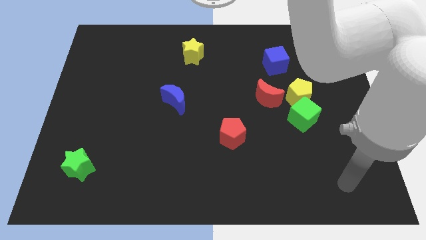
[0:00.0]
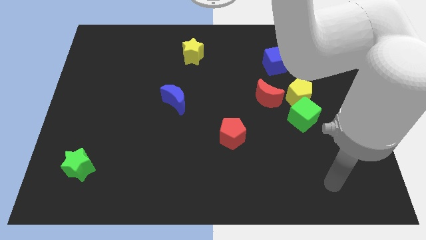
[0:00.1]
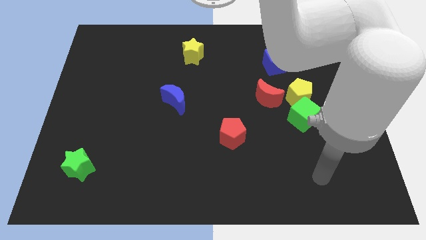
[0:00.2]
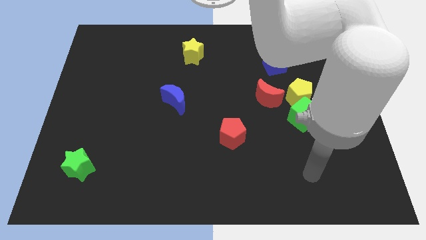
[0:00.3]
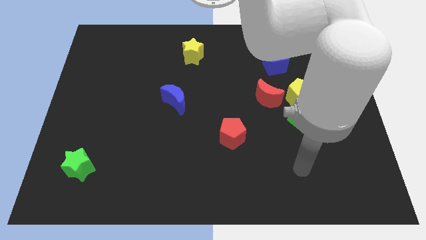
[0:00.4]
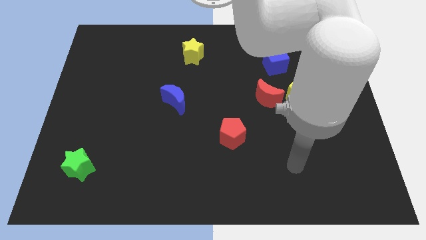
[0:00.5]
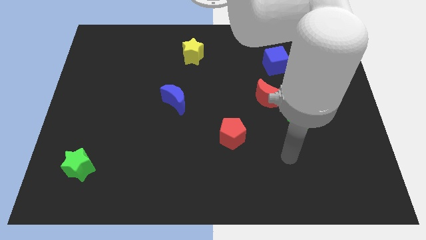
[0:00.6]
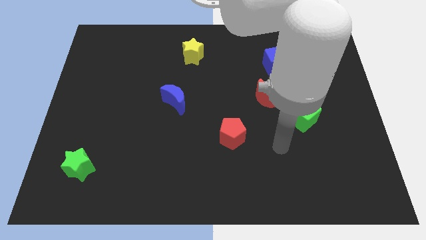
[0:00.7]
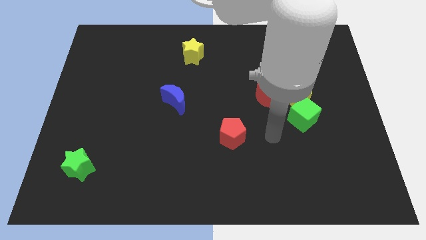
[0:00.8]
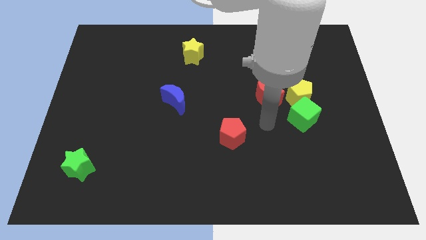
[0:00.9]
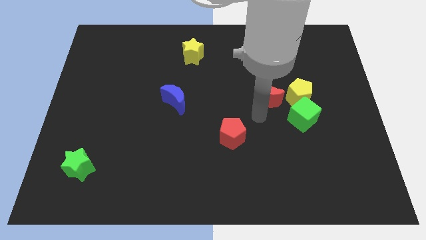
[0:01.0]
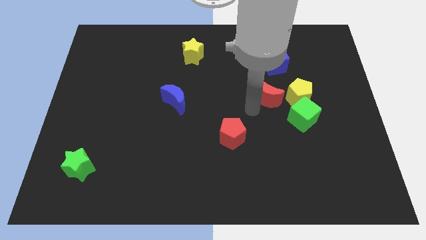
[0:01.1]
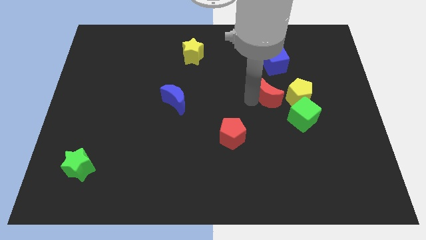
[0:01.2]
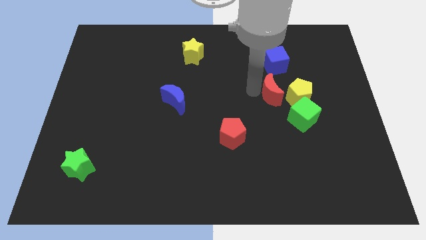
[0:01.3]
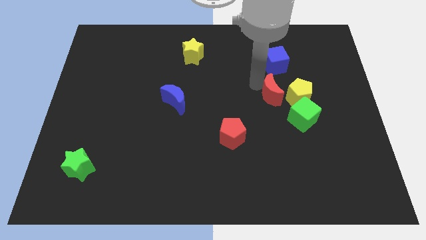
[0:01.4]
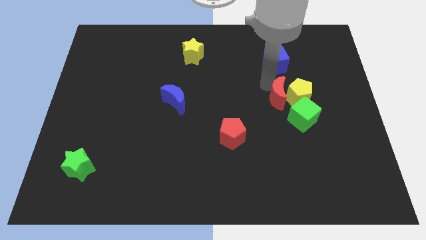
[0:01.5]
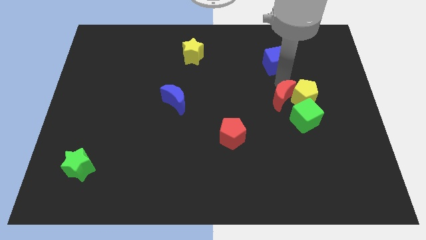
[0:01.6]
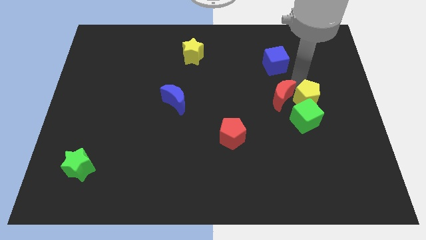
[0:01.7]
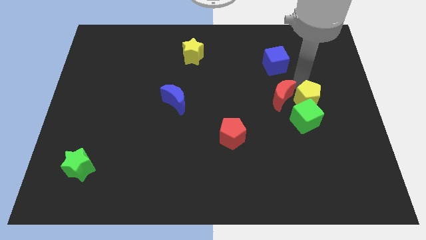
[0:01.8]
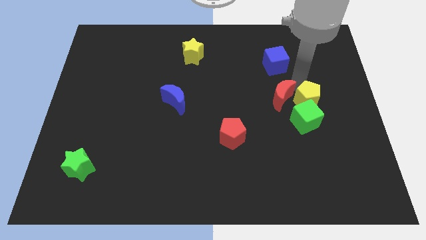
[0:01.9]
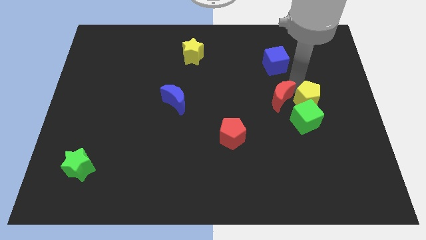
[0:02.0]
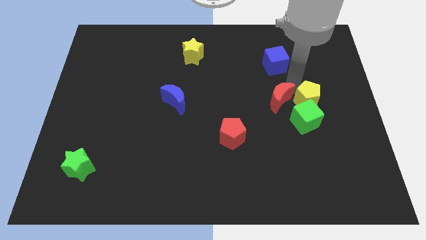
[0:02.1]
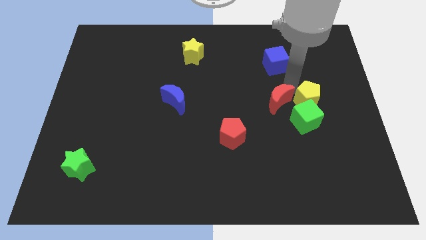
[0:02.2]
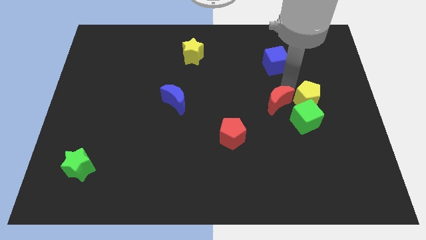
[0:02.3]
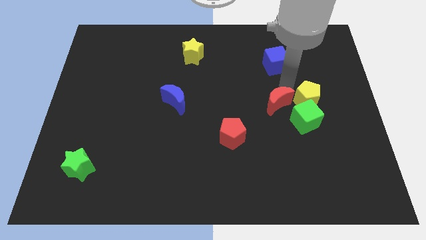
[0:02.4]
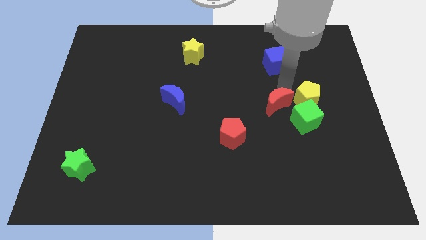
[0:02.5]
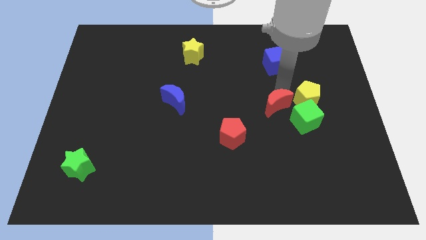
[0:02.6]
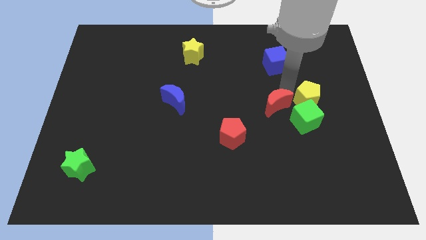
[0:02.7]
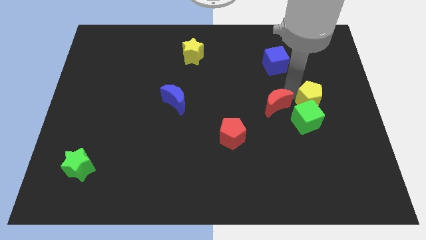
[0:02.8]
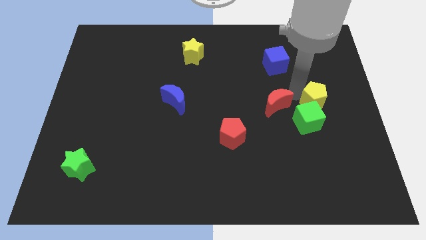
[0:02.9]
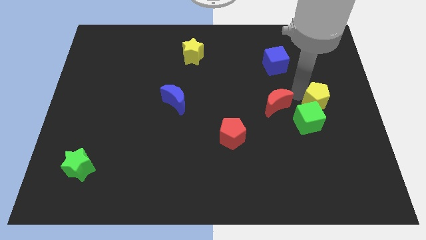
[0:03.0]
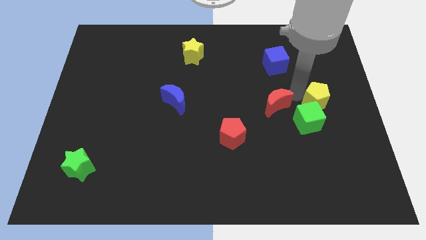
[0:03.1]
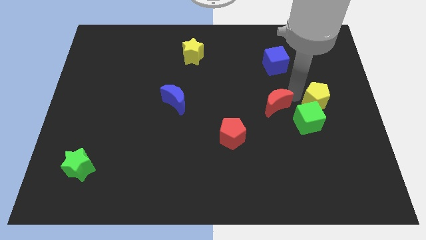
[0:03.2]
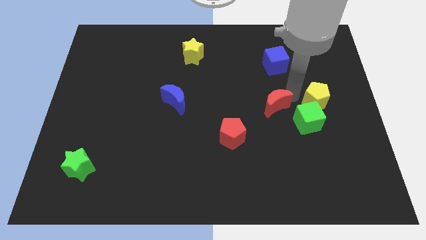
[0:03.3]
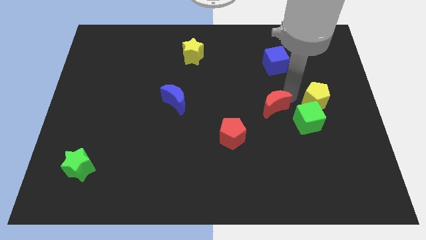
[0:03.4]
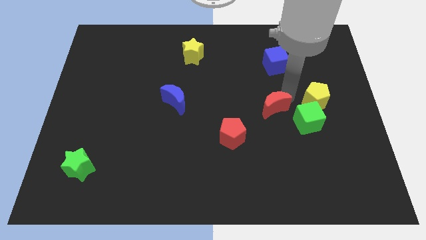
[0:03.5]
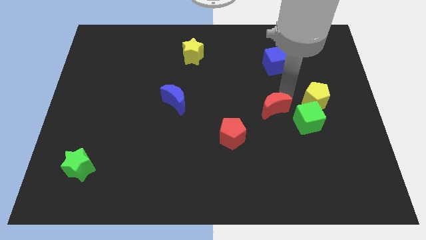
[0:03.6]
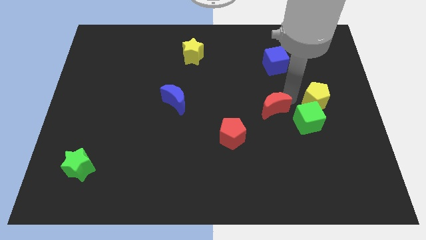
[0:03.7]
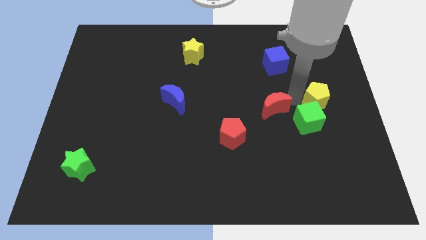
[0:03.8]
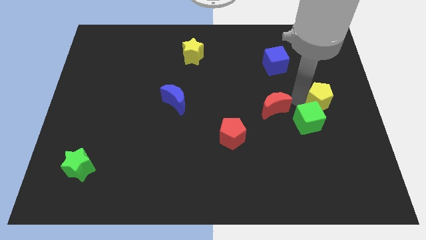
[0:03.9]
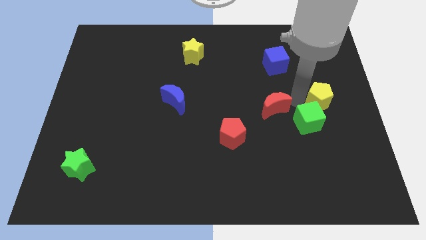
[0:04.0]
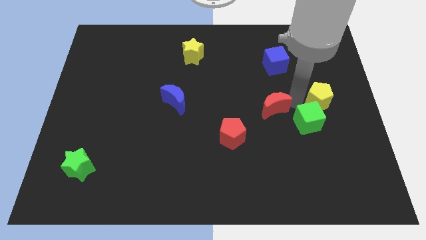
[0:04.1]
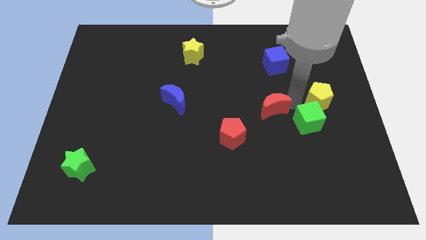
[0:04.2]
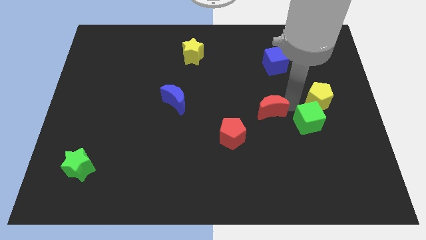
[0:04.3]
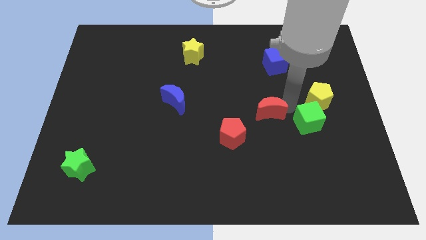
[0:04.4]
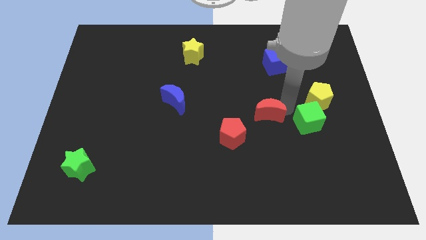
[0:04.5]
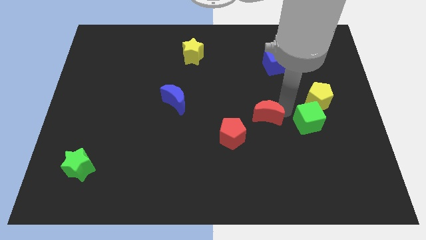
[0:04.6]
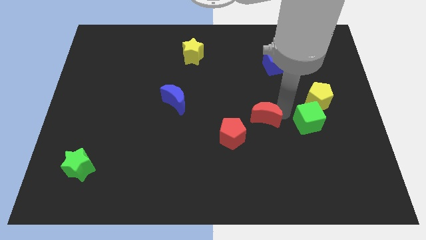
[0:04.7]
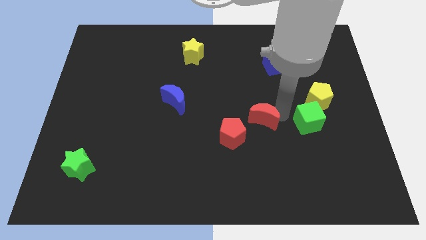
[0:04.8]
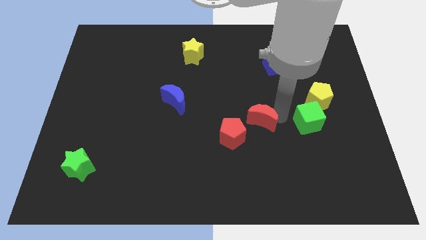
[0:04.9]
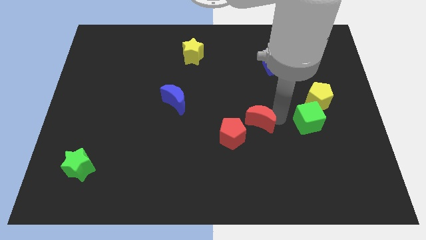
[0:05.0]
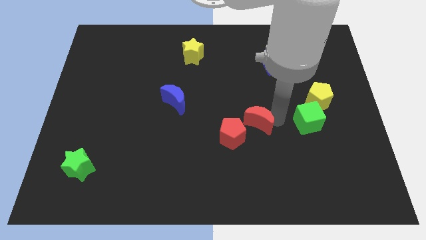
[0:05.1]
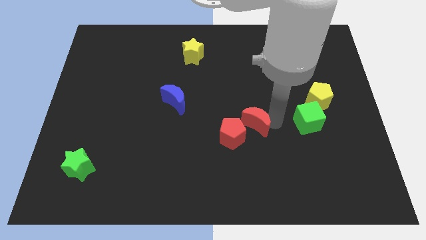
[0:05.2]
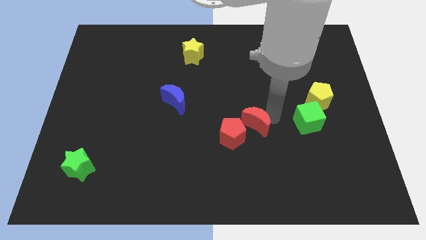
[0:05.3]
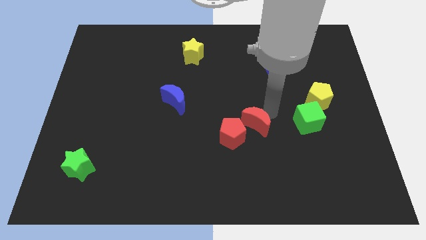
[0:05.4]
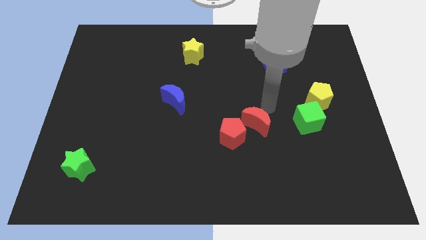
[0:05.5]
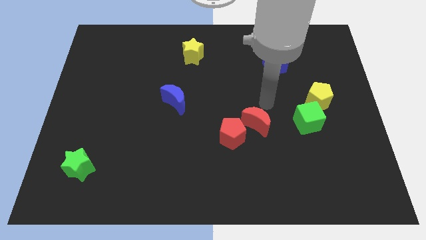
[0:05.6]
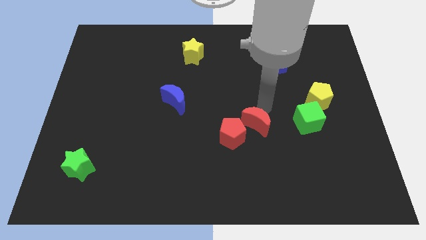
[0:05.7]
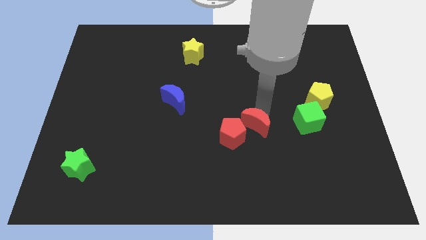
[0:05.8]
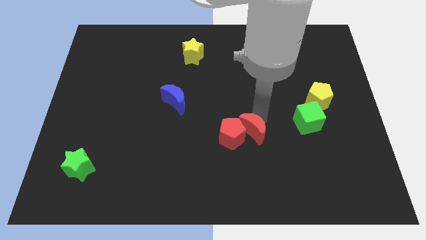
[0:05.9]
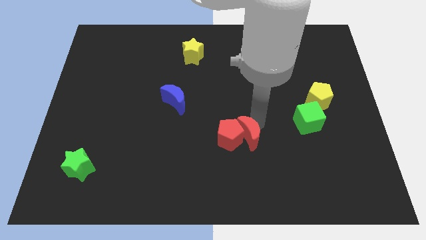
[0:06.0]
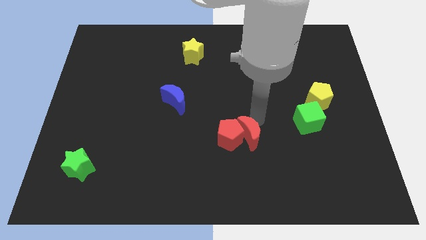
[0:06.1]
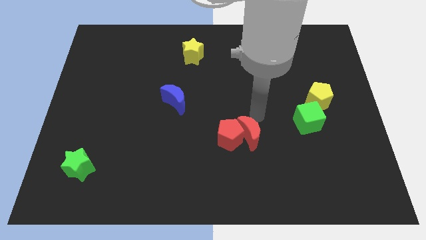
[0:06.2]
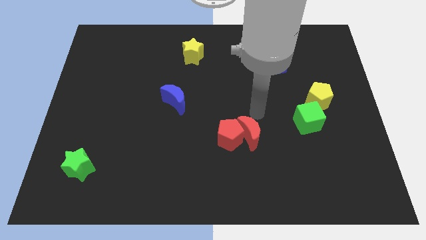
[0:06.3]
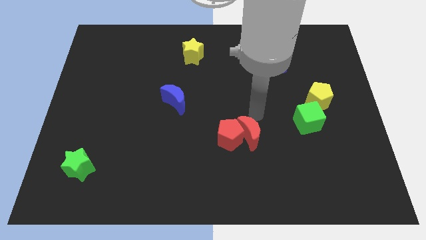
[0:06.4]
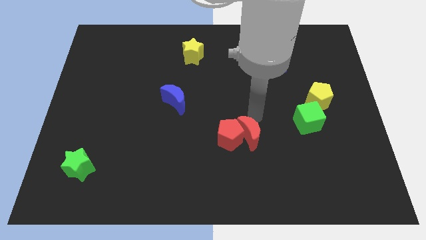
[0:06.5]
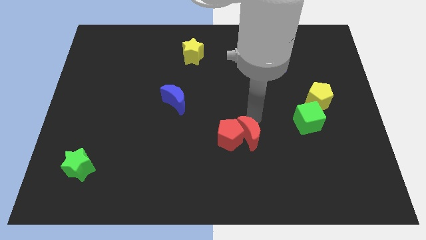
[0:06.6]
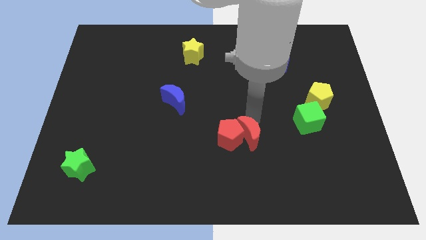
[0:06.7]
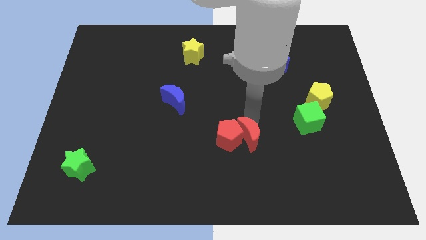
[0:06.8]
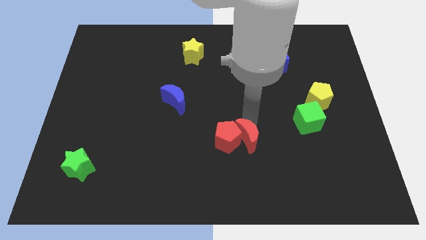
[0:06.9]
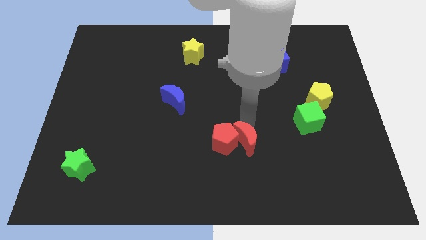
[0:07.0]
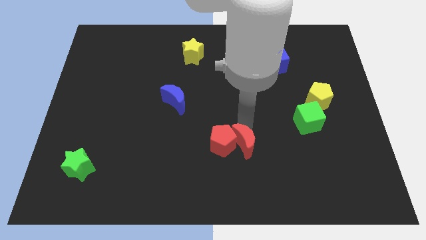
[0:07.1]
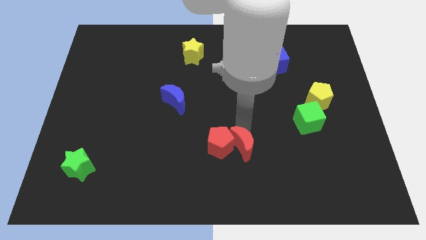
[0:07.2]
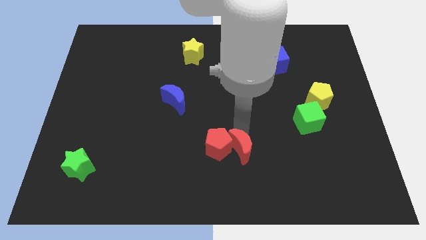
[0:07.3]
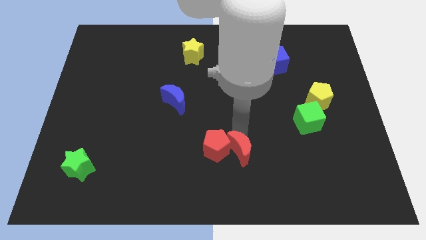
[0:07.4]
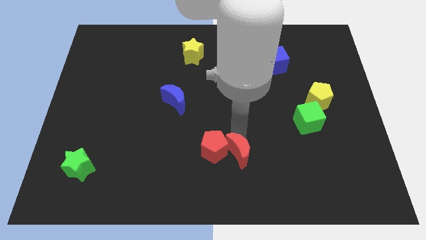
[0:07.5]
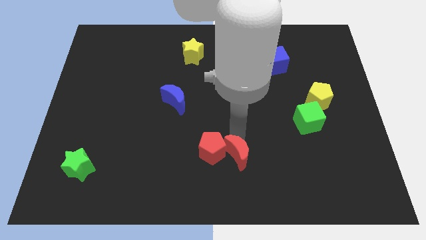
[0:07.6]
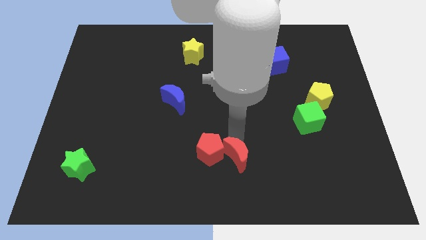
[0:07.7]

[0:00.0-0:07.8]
put the red moon to the bottom
